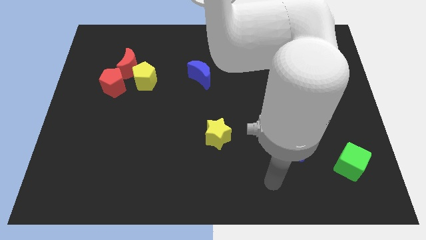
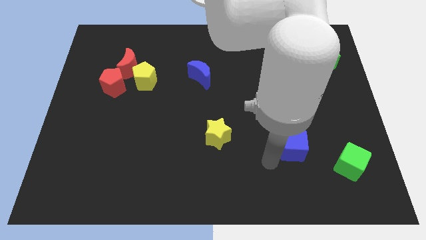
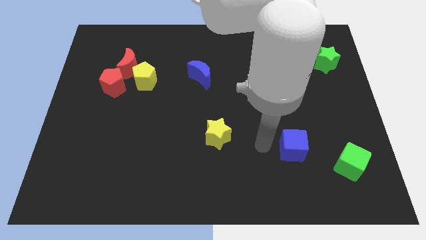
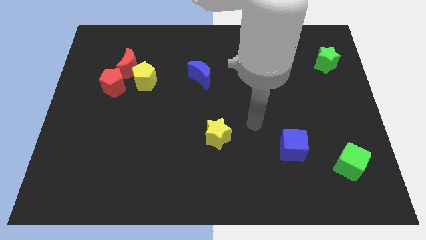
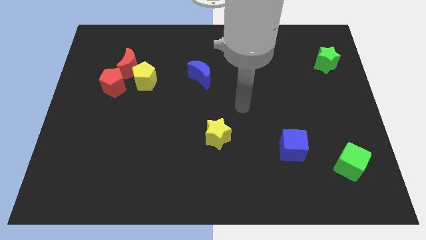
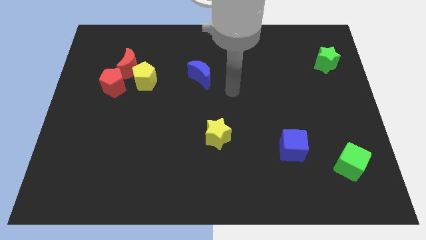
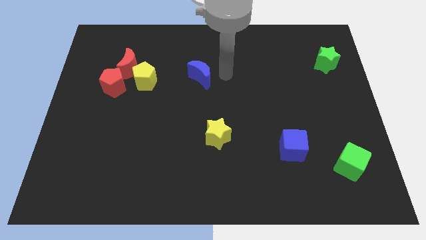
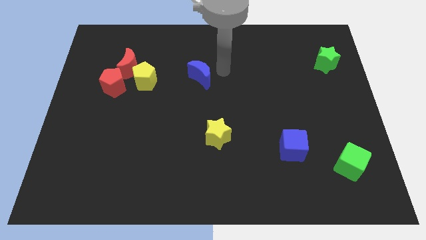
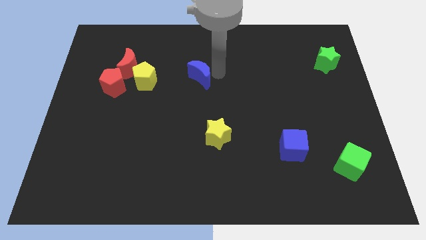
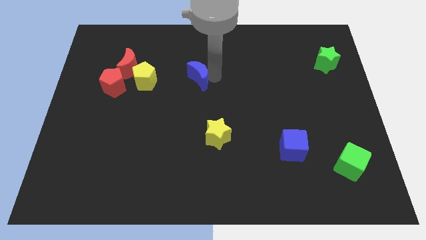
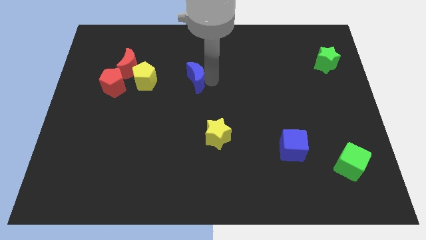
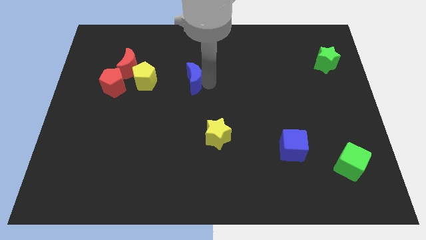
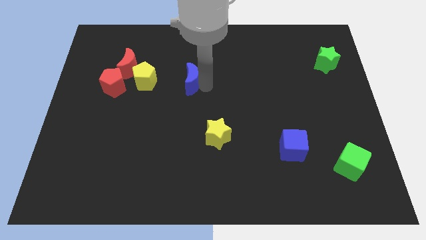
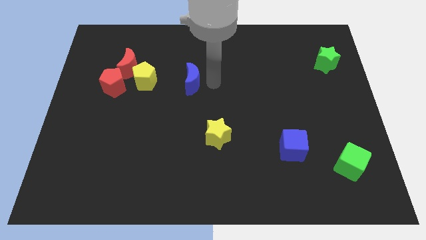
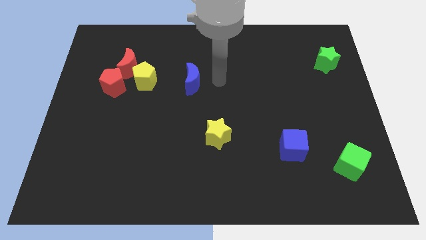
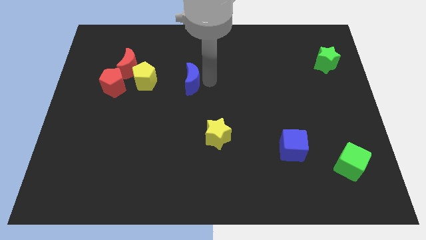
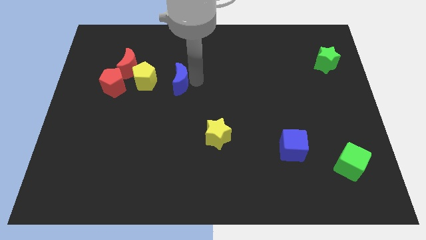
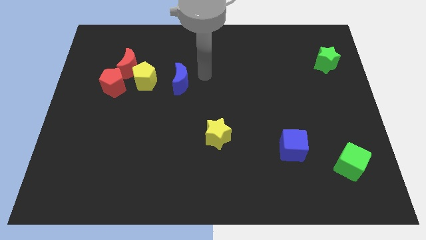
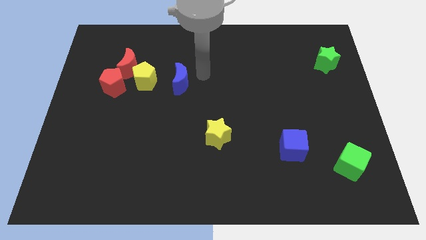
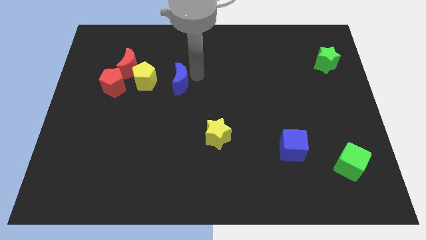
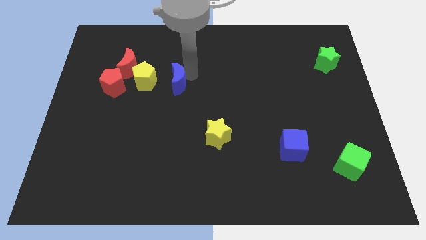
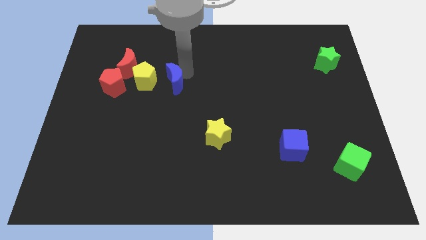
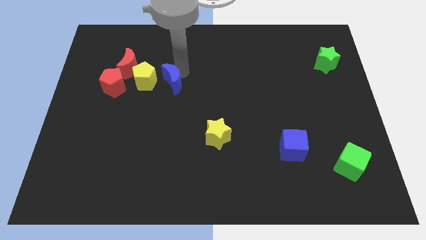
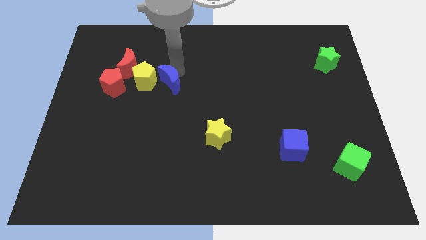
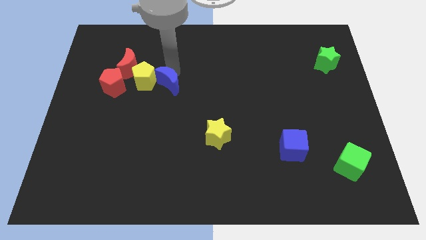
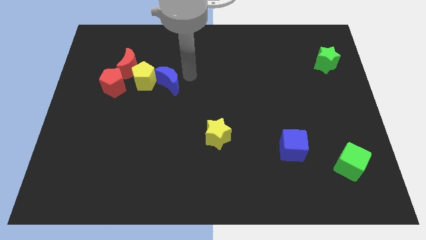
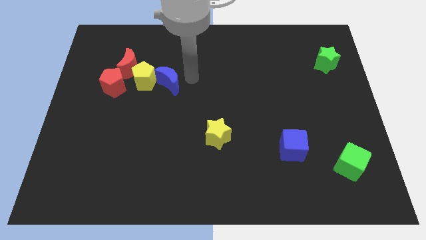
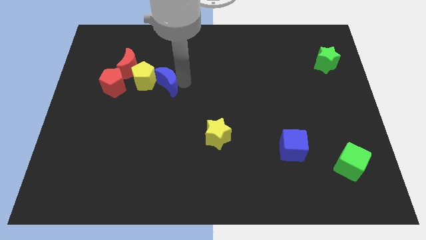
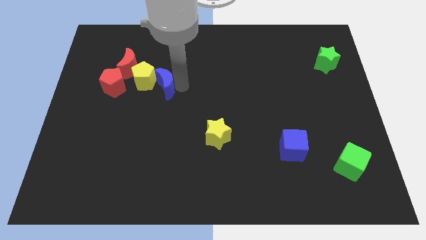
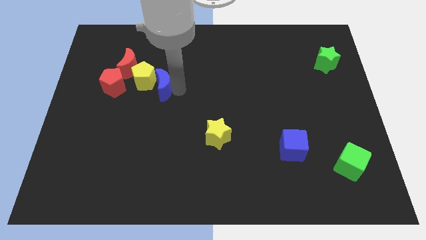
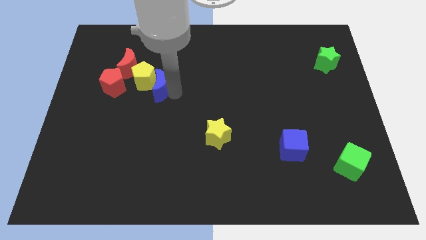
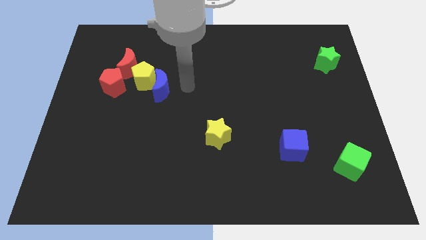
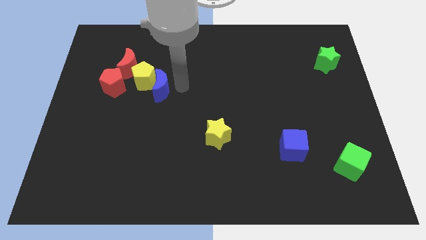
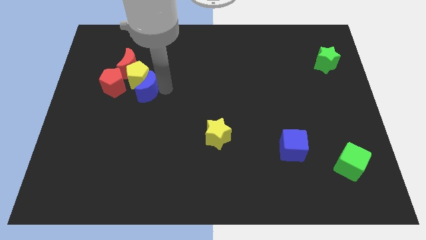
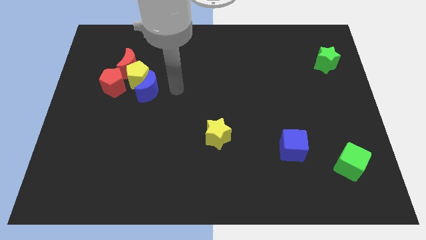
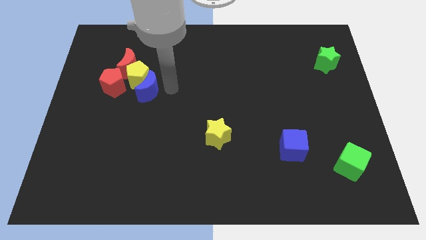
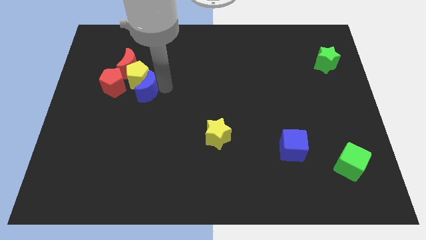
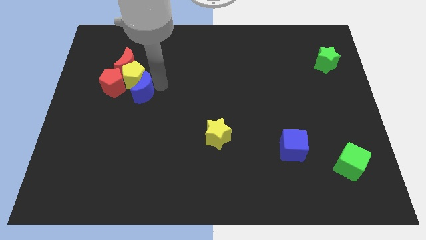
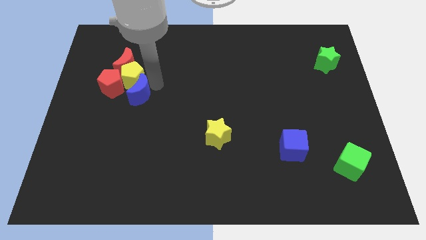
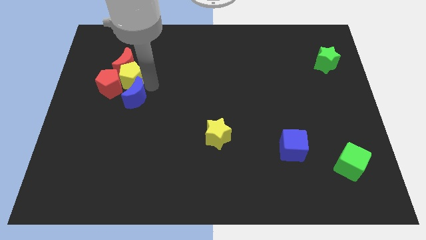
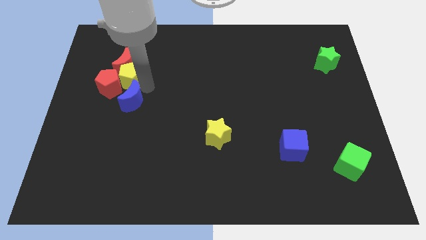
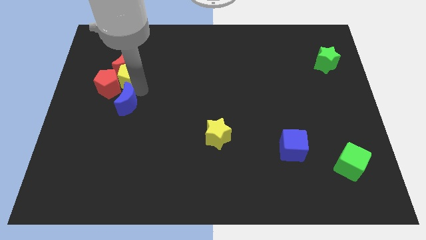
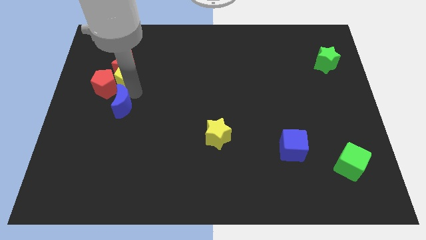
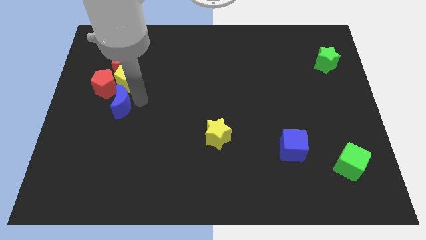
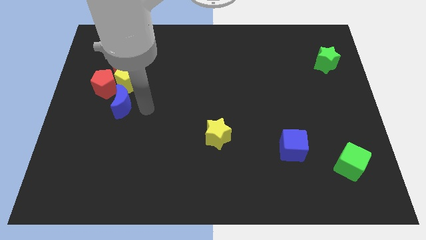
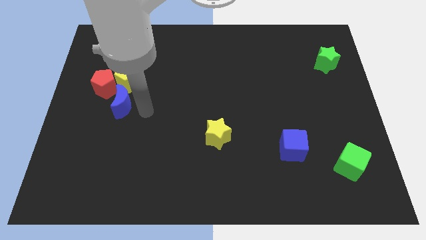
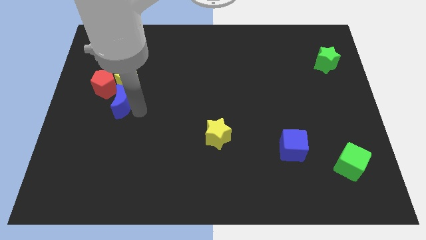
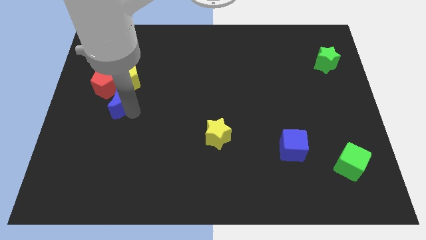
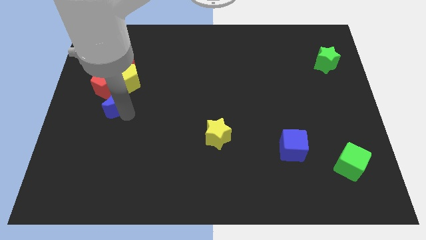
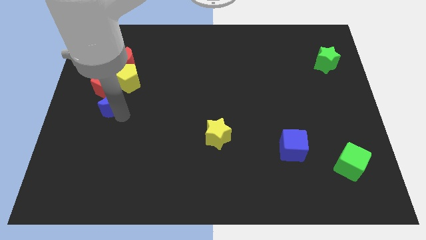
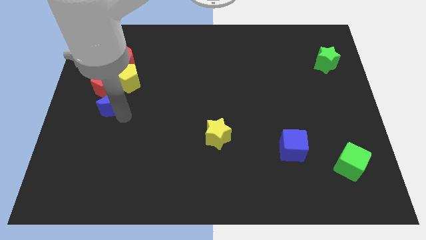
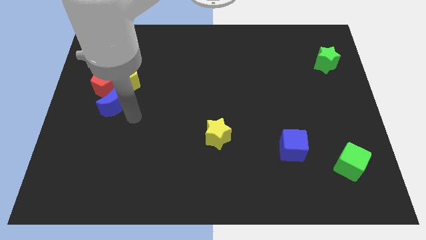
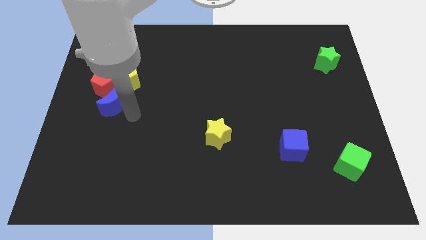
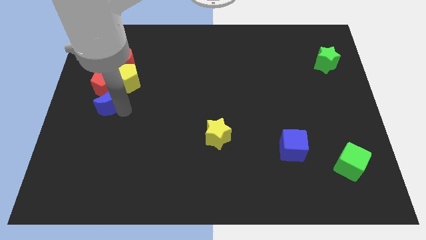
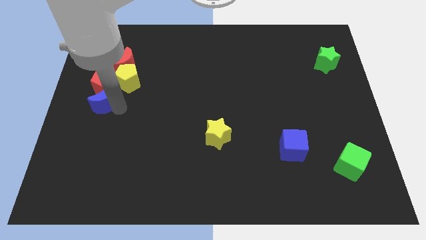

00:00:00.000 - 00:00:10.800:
slide the blue moon to the left side
